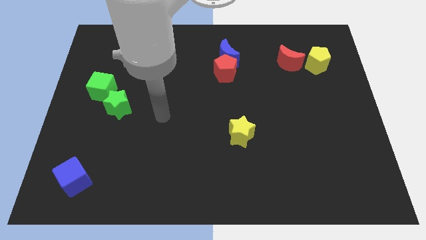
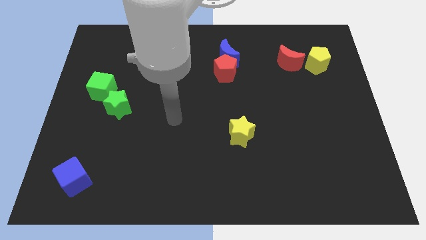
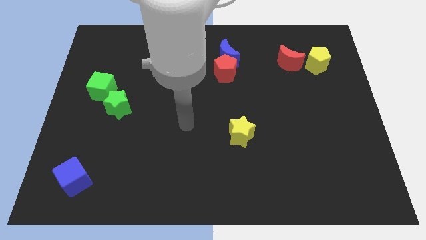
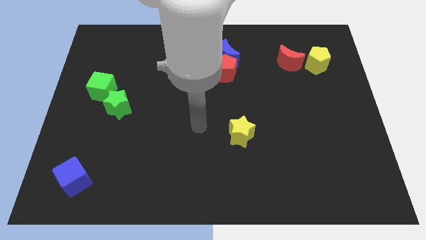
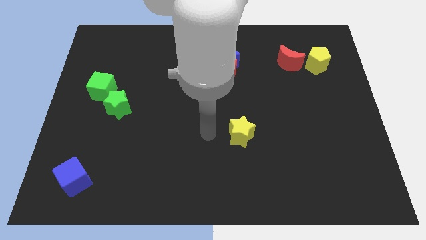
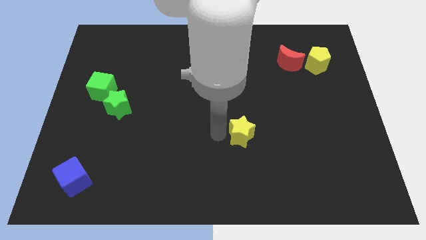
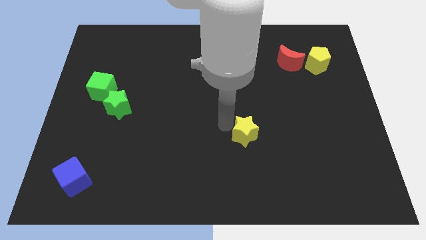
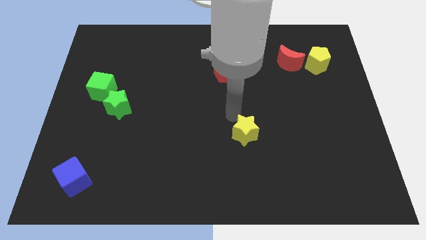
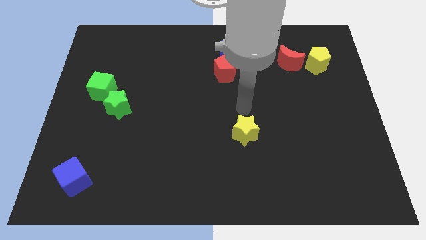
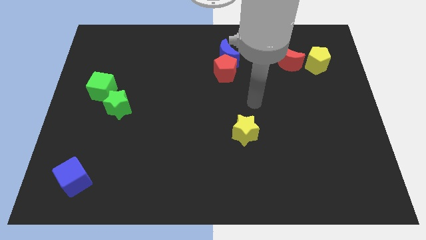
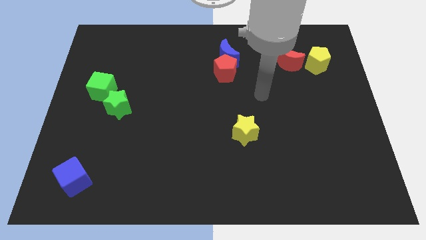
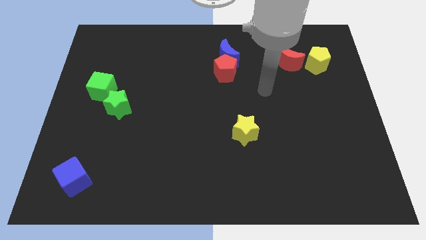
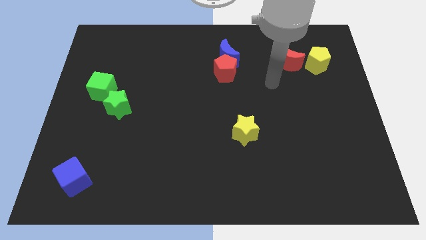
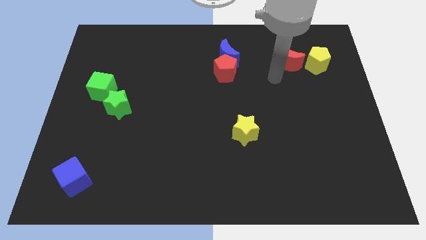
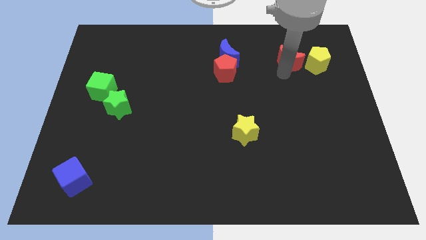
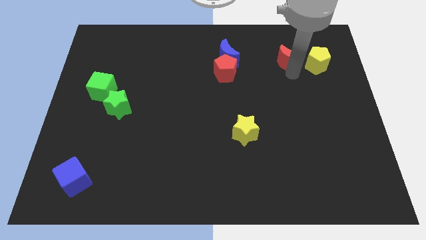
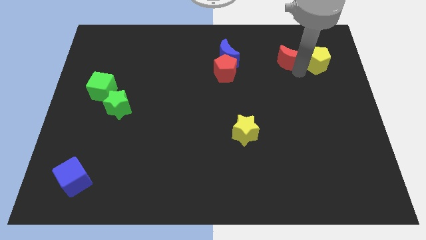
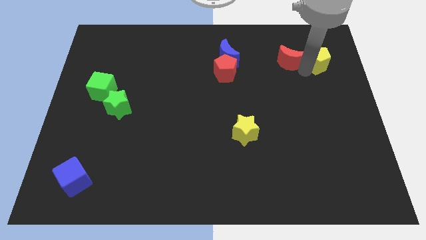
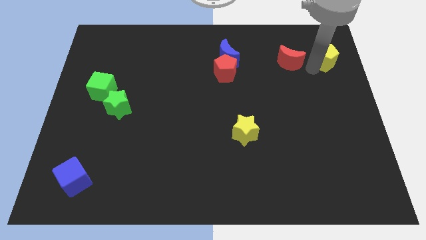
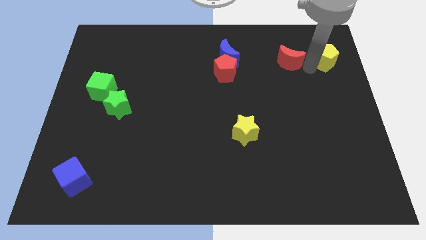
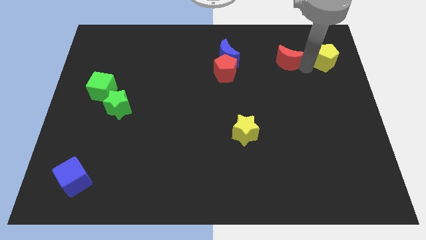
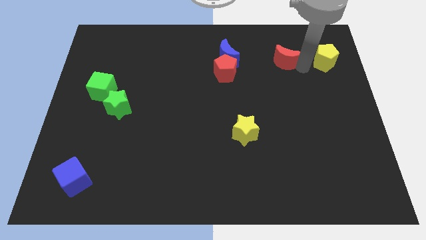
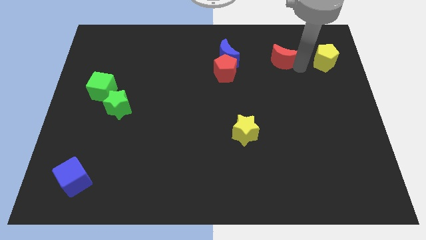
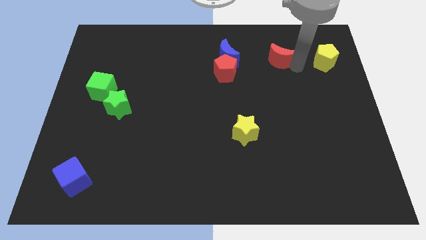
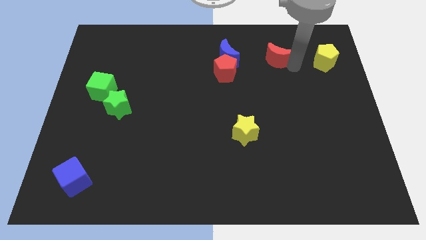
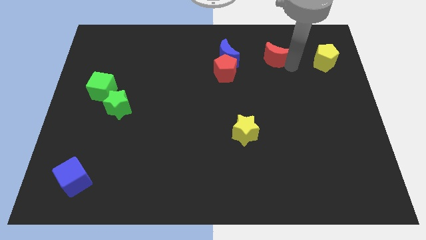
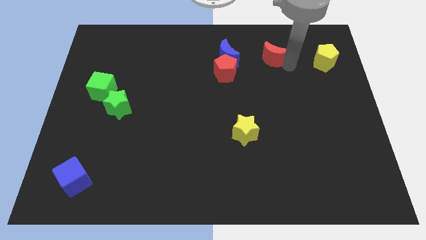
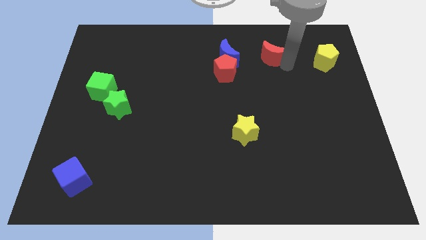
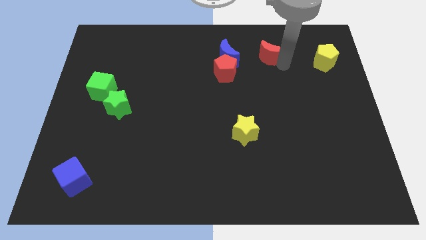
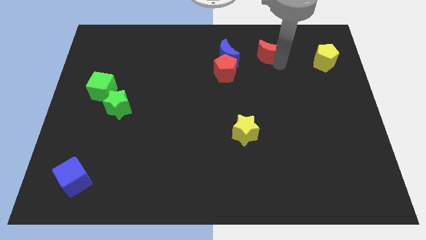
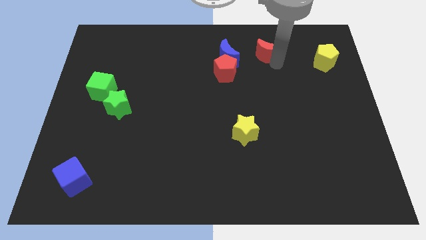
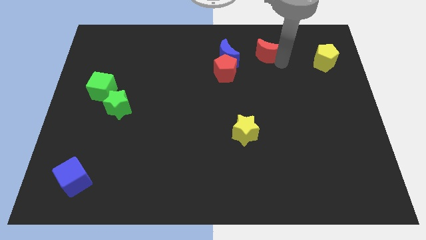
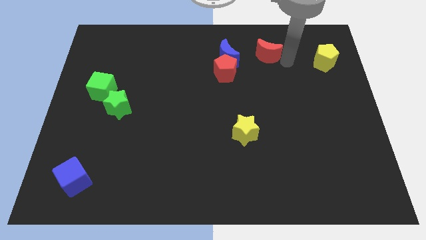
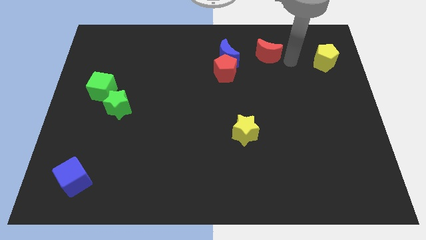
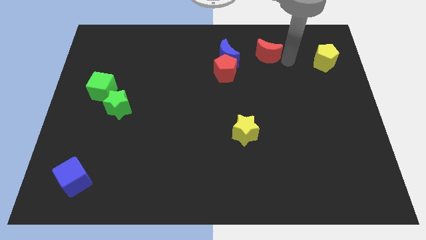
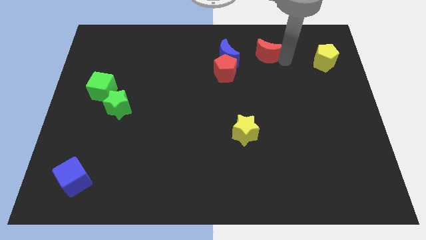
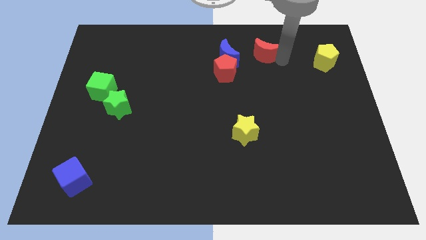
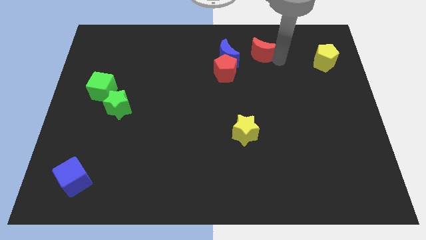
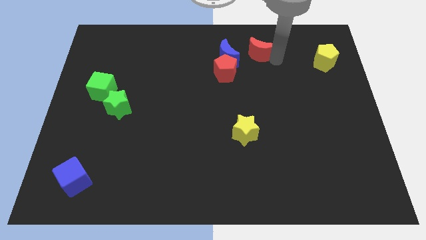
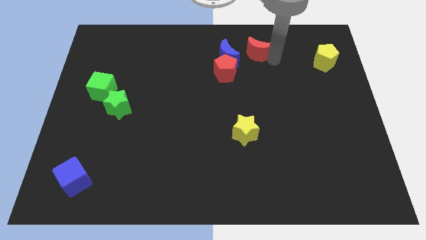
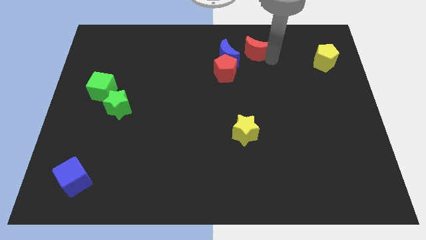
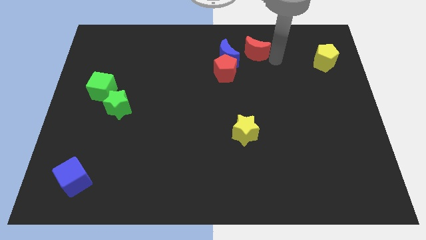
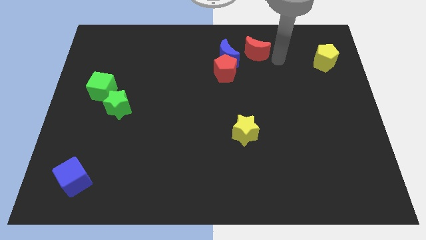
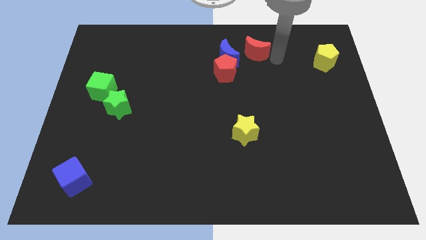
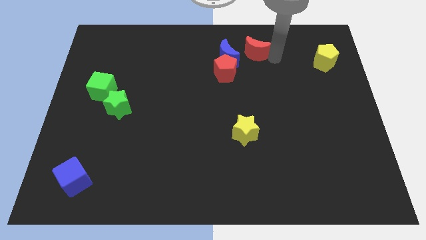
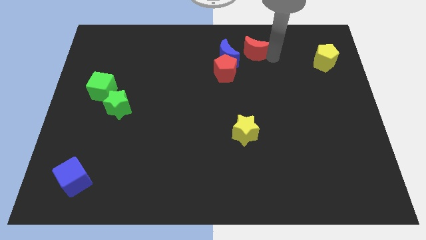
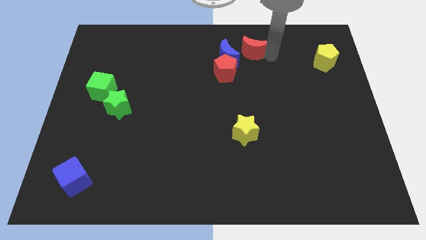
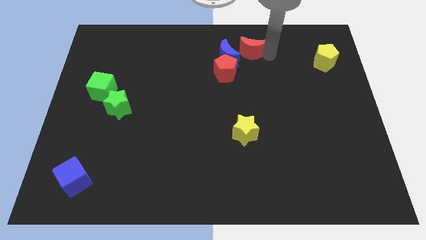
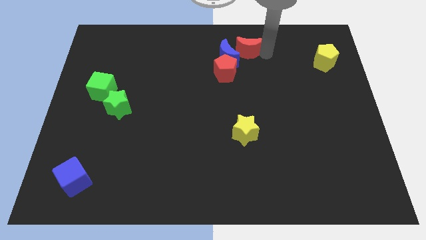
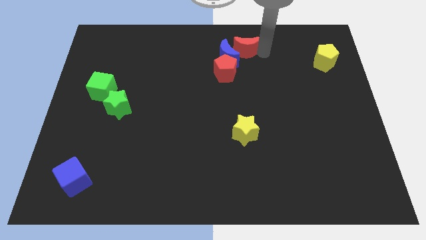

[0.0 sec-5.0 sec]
put the red moon to the top side
